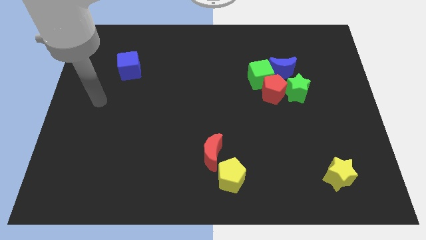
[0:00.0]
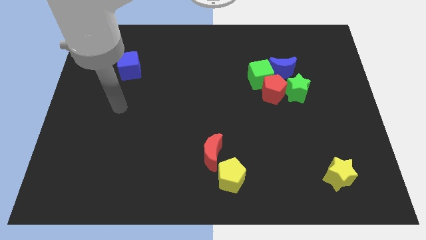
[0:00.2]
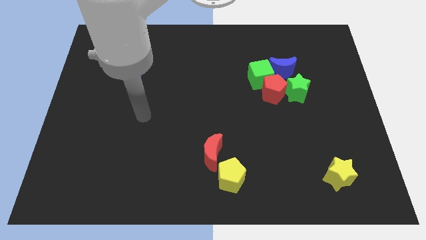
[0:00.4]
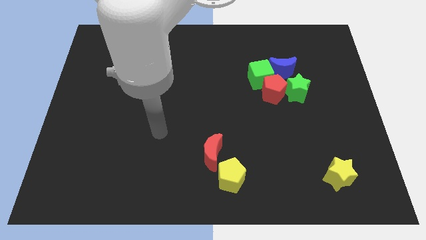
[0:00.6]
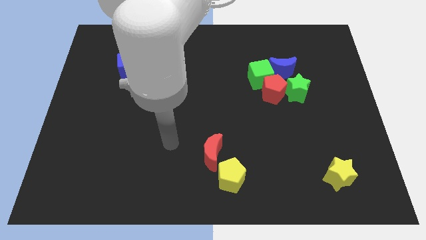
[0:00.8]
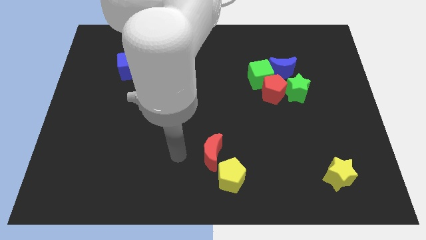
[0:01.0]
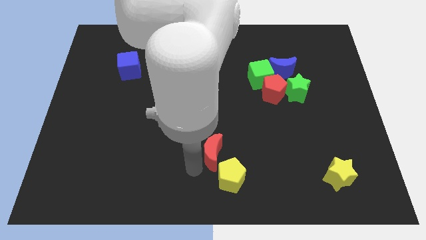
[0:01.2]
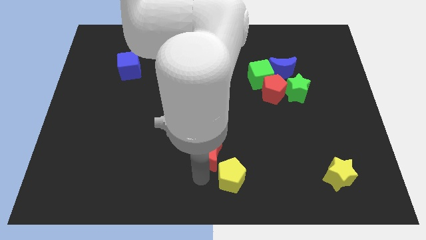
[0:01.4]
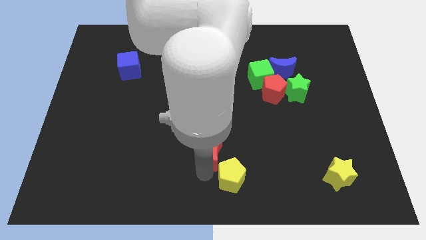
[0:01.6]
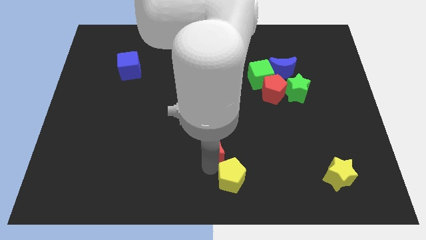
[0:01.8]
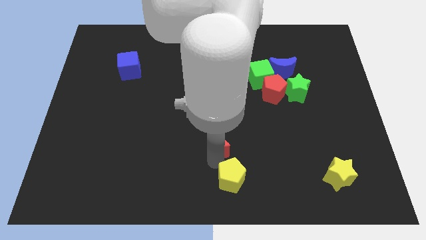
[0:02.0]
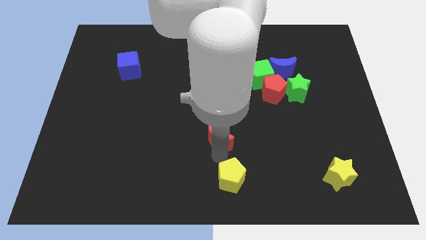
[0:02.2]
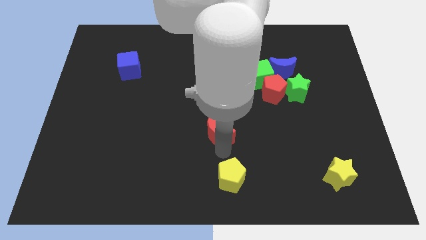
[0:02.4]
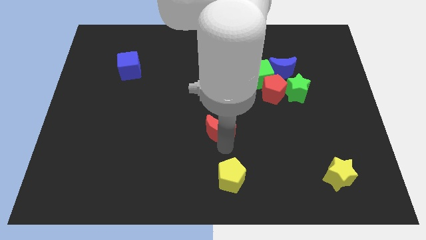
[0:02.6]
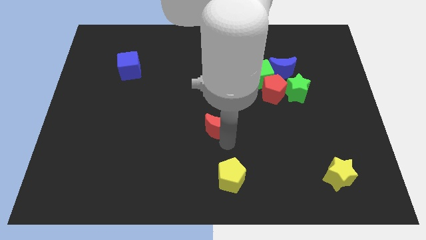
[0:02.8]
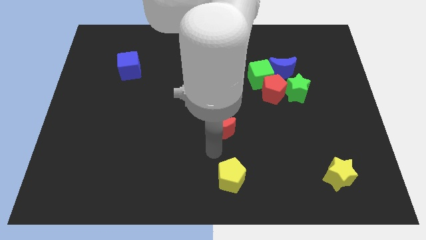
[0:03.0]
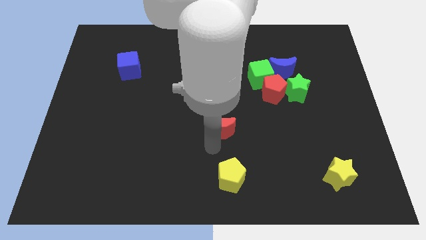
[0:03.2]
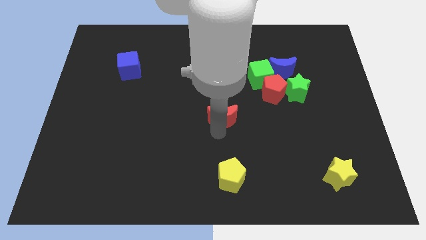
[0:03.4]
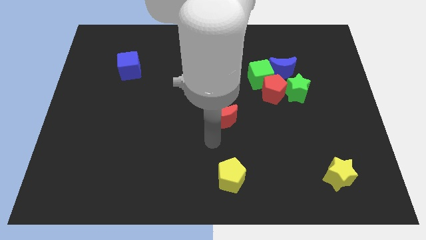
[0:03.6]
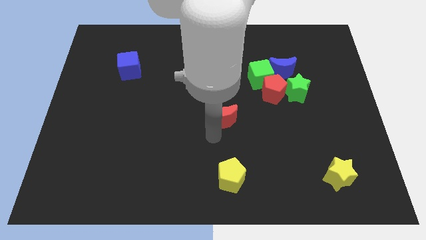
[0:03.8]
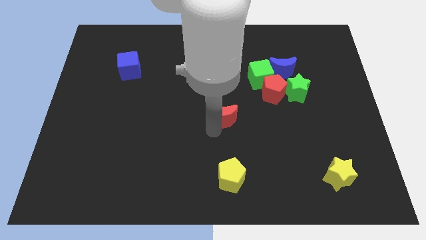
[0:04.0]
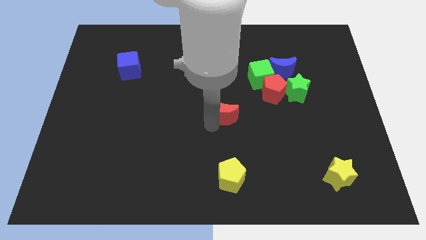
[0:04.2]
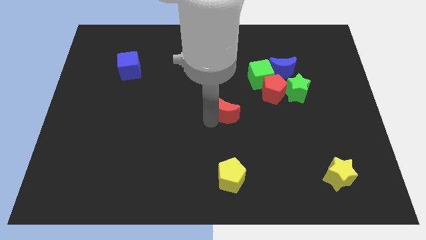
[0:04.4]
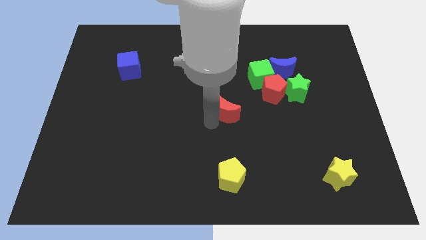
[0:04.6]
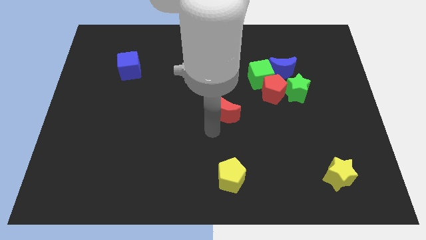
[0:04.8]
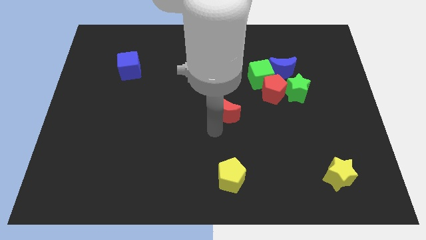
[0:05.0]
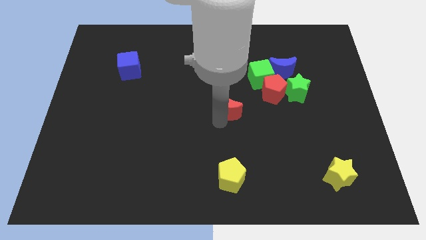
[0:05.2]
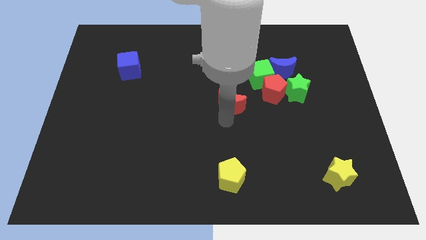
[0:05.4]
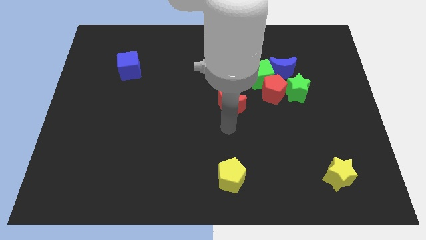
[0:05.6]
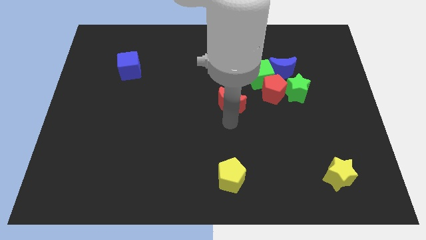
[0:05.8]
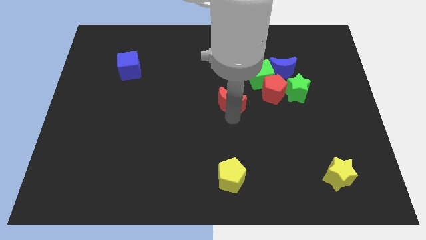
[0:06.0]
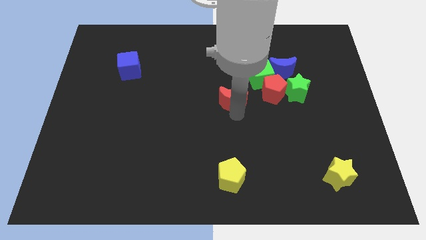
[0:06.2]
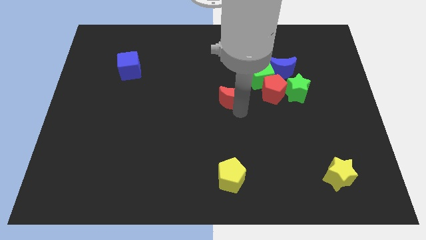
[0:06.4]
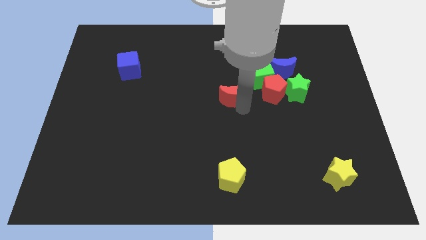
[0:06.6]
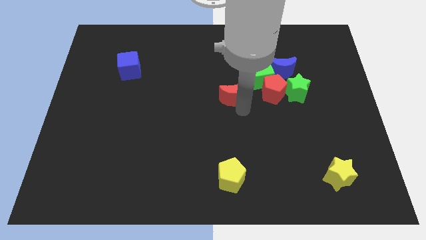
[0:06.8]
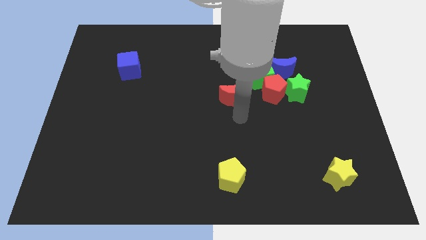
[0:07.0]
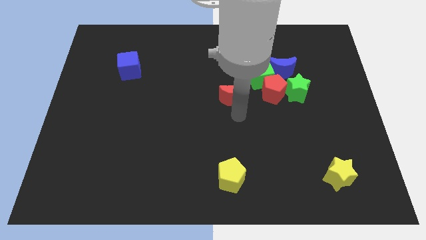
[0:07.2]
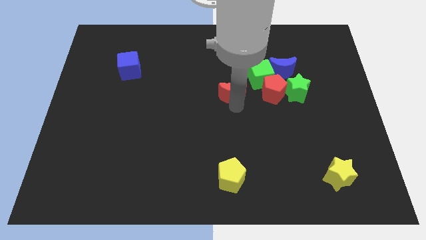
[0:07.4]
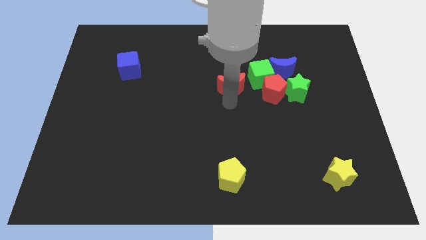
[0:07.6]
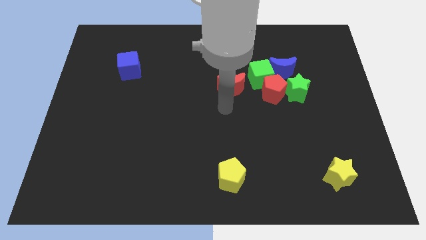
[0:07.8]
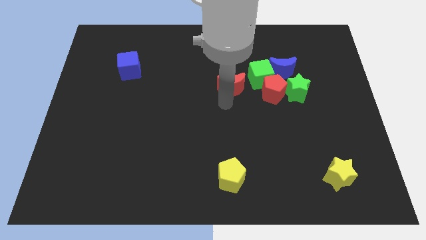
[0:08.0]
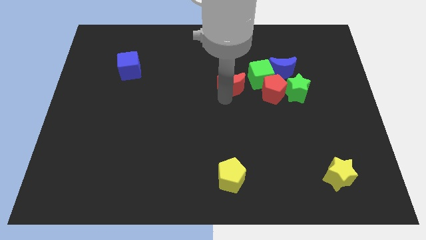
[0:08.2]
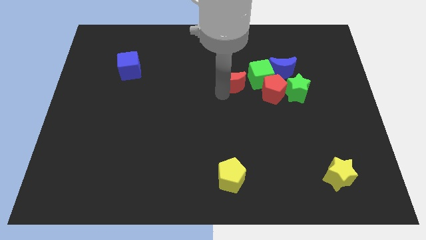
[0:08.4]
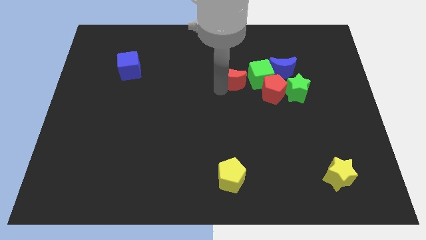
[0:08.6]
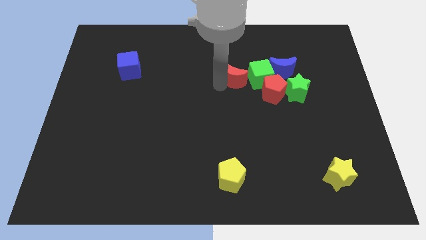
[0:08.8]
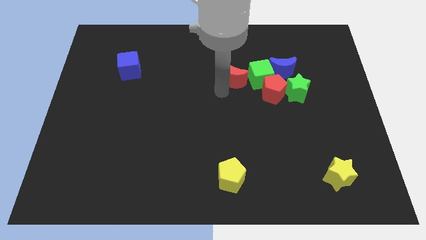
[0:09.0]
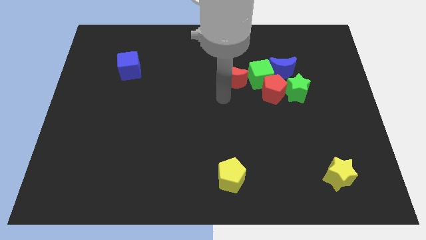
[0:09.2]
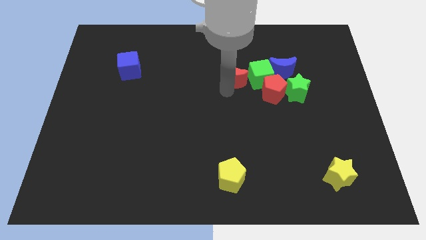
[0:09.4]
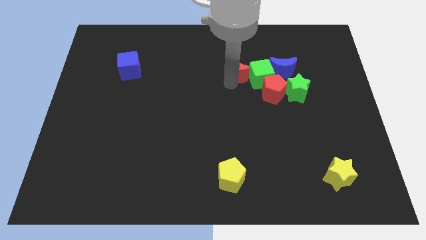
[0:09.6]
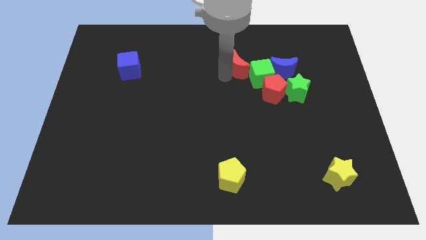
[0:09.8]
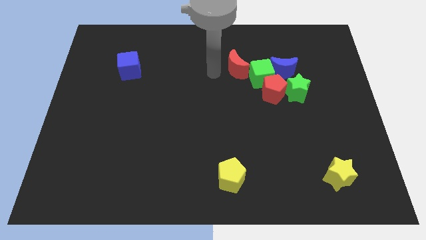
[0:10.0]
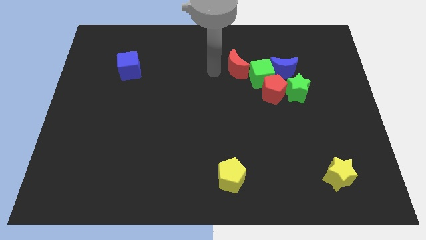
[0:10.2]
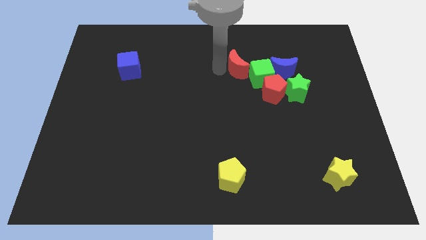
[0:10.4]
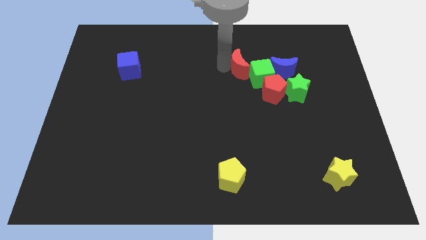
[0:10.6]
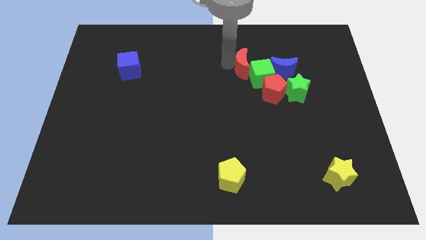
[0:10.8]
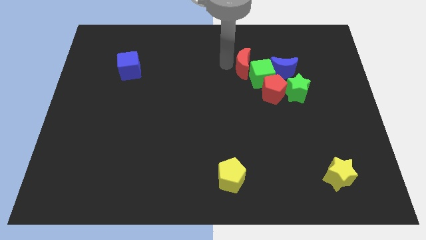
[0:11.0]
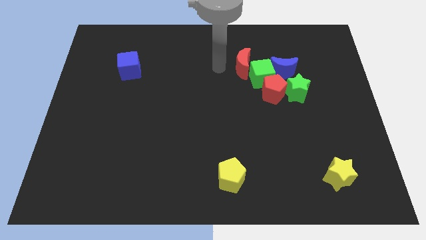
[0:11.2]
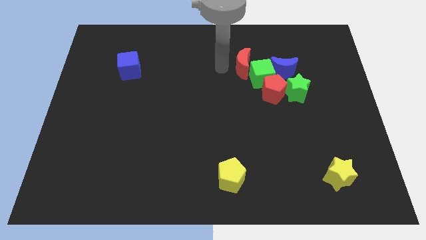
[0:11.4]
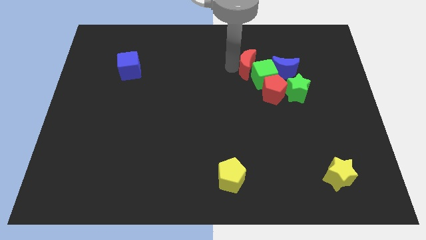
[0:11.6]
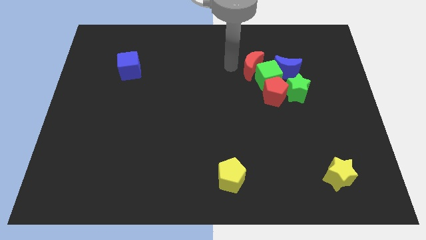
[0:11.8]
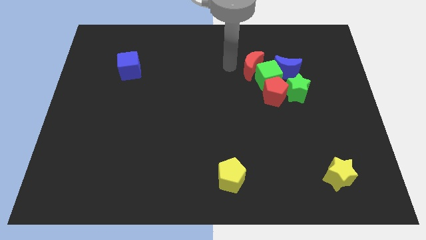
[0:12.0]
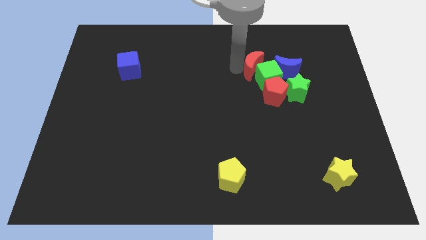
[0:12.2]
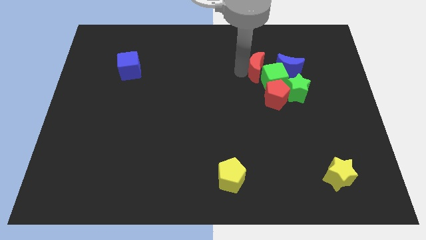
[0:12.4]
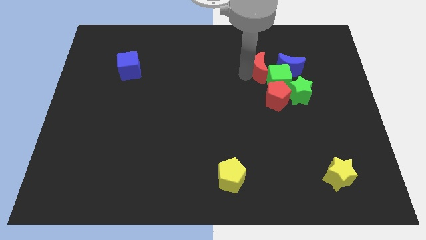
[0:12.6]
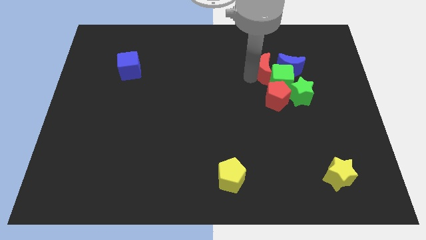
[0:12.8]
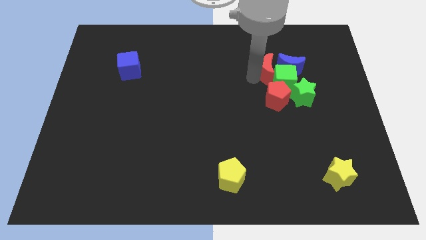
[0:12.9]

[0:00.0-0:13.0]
push the red moon close to the blue moon

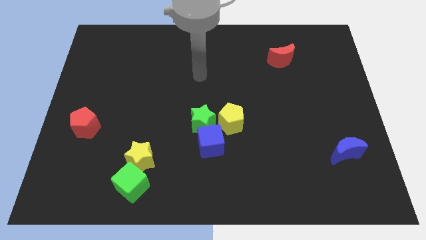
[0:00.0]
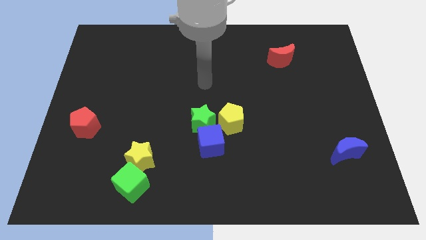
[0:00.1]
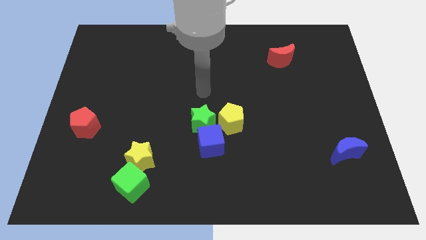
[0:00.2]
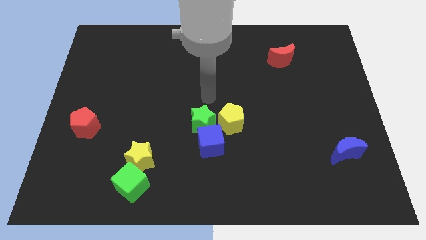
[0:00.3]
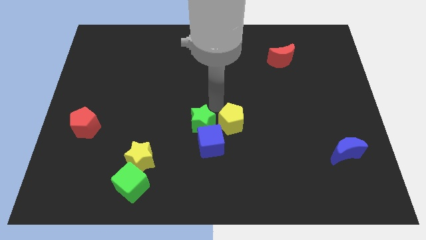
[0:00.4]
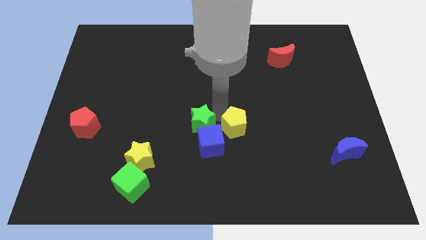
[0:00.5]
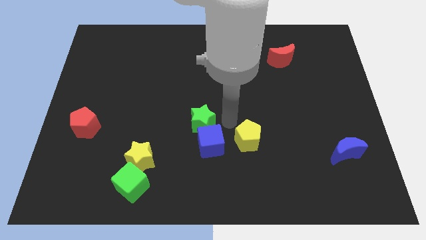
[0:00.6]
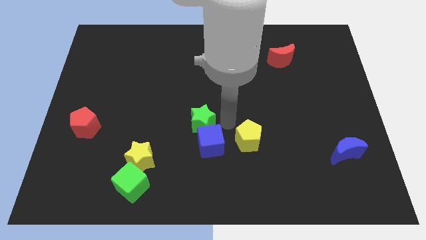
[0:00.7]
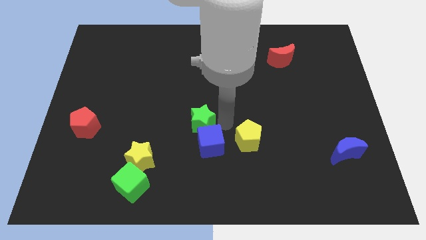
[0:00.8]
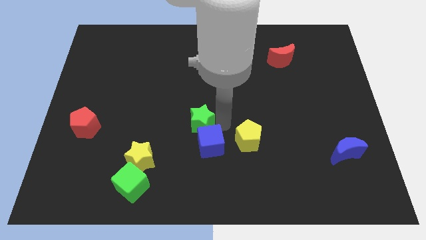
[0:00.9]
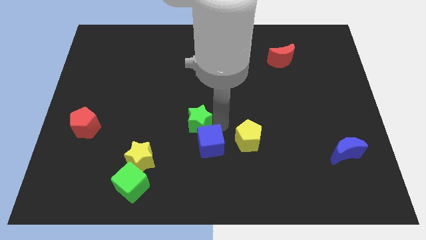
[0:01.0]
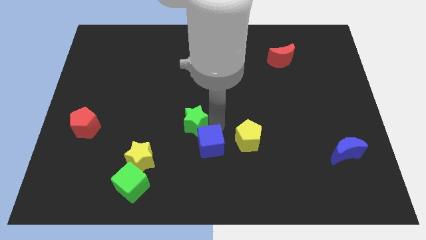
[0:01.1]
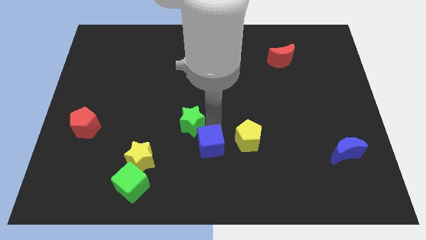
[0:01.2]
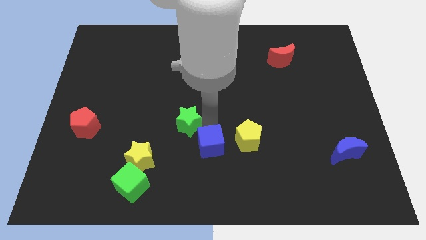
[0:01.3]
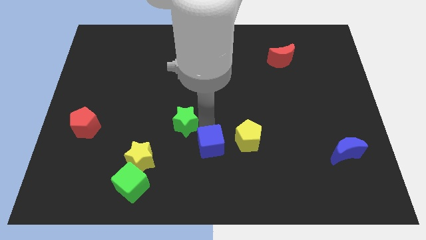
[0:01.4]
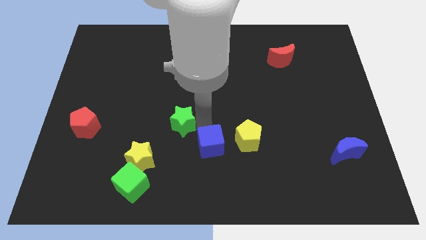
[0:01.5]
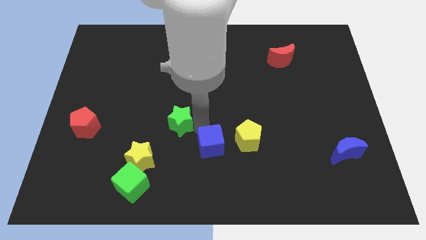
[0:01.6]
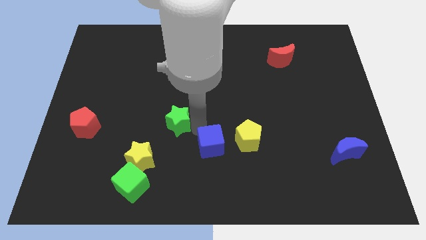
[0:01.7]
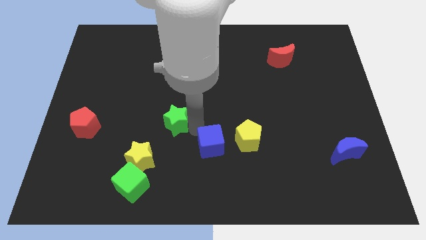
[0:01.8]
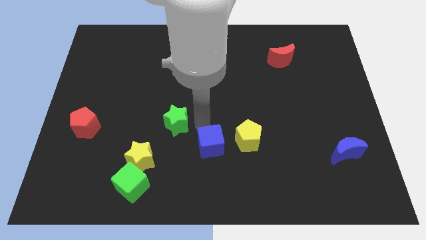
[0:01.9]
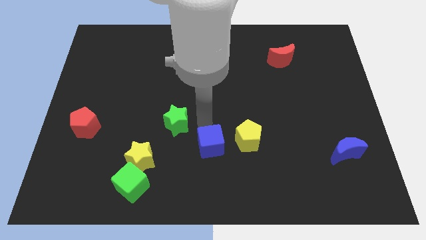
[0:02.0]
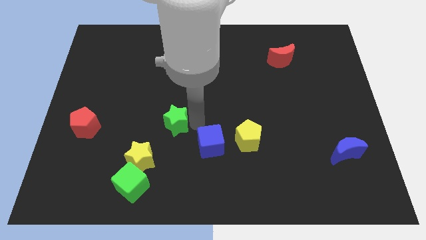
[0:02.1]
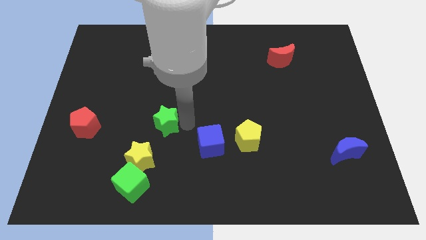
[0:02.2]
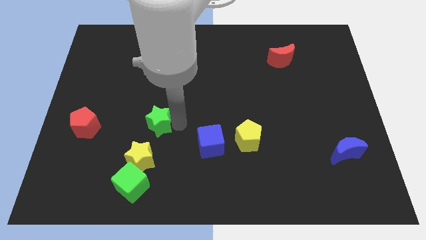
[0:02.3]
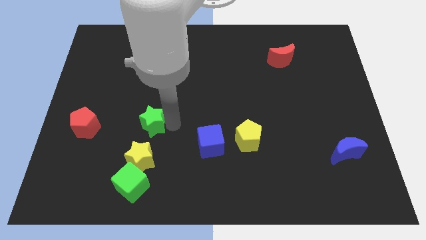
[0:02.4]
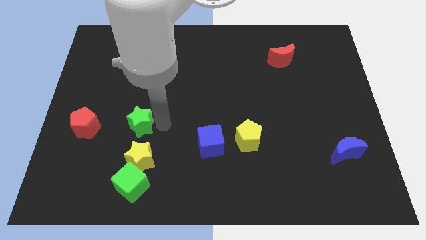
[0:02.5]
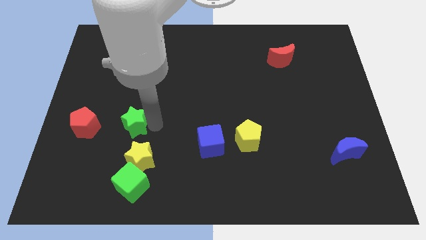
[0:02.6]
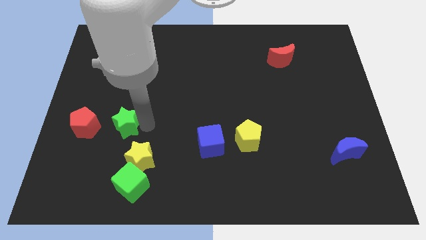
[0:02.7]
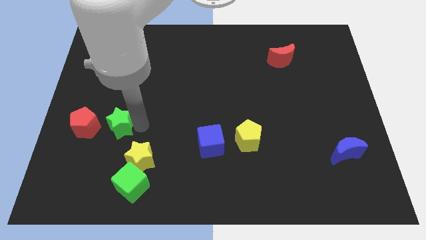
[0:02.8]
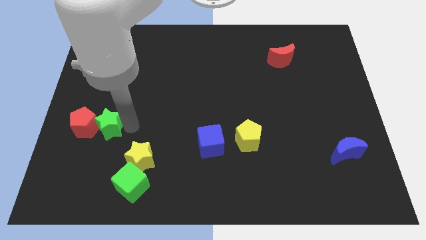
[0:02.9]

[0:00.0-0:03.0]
move the green star close to the red pentagon
